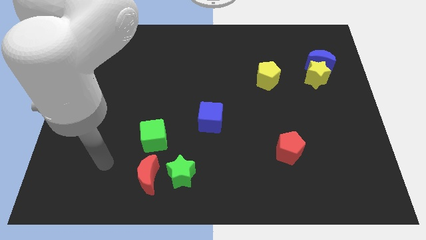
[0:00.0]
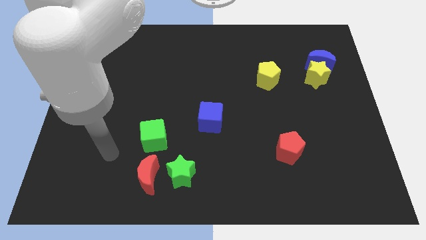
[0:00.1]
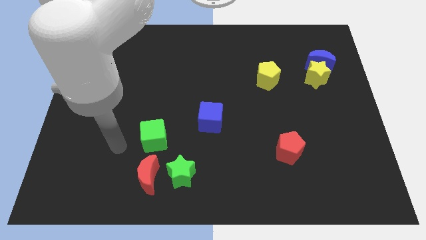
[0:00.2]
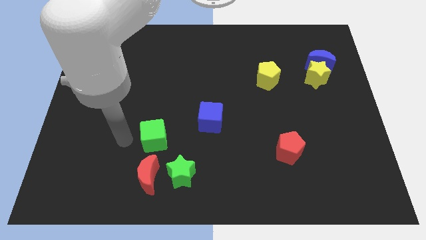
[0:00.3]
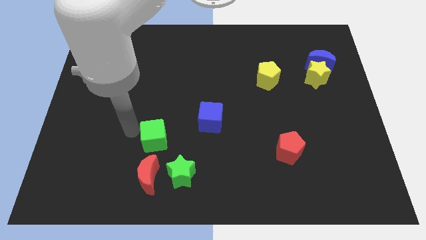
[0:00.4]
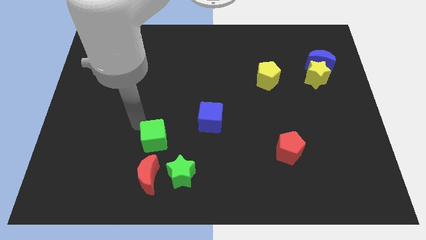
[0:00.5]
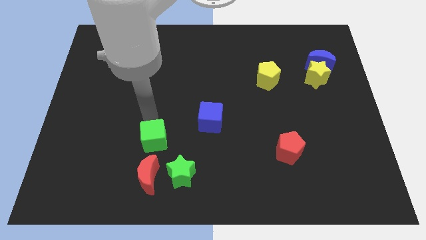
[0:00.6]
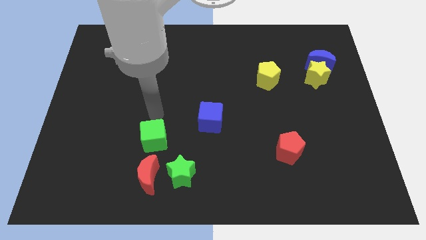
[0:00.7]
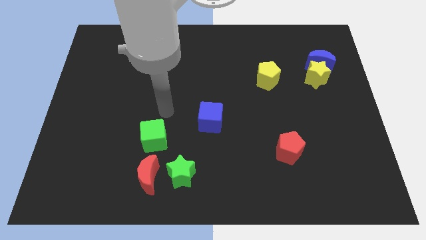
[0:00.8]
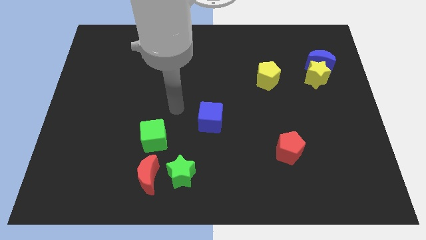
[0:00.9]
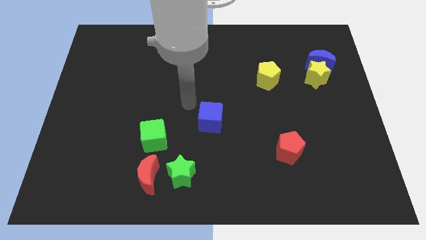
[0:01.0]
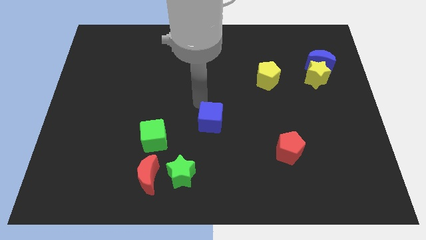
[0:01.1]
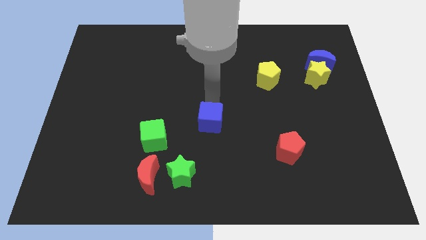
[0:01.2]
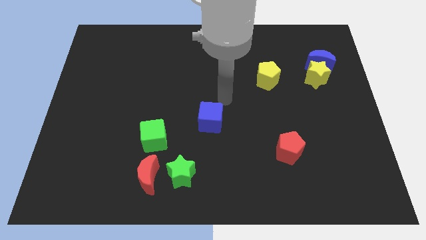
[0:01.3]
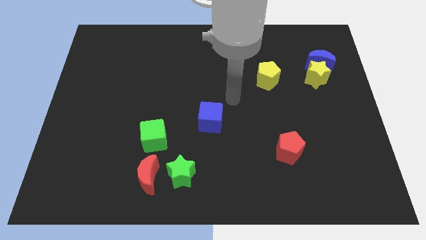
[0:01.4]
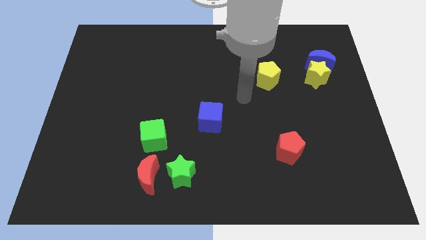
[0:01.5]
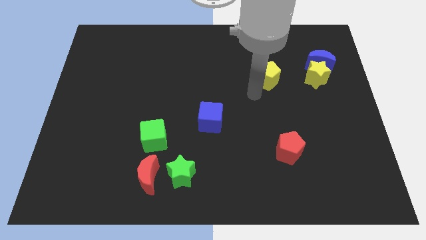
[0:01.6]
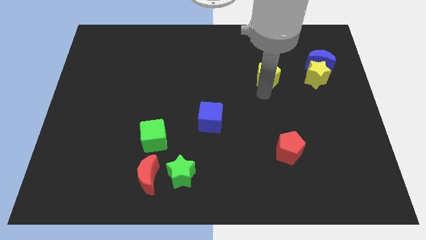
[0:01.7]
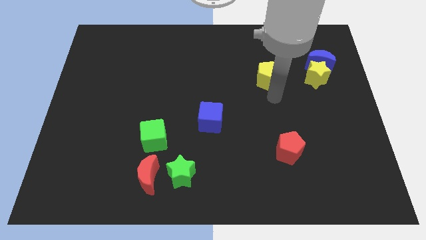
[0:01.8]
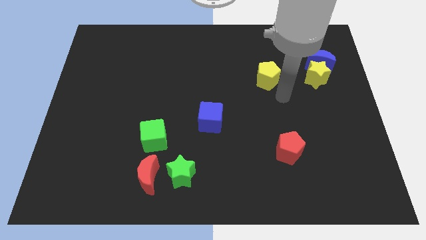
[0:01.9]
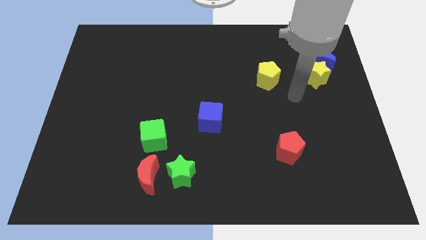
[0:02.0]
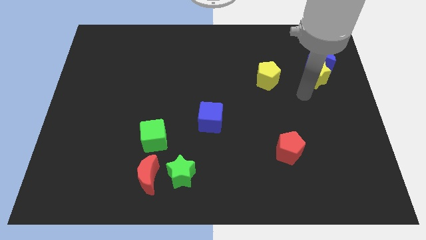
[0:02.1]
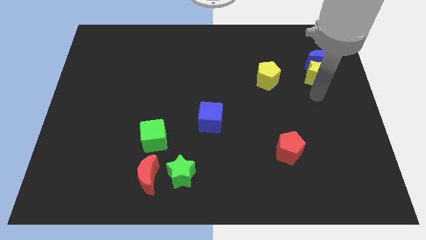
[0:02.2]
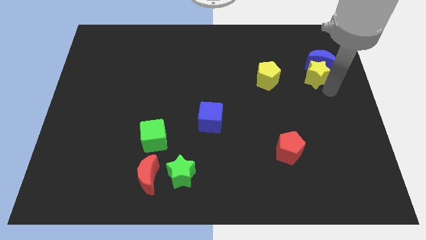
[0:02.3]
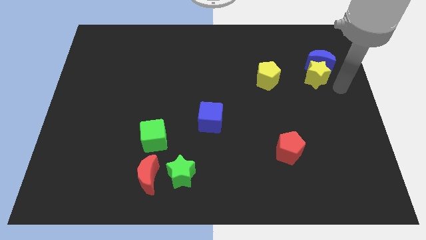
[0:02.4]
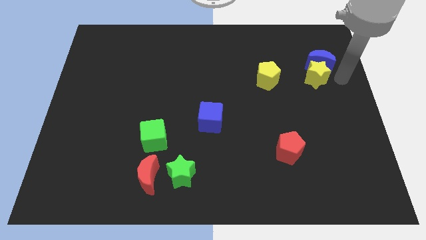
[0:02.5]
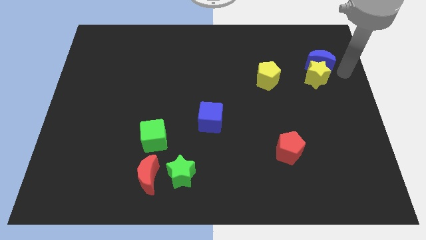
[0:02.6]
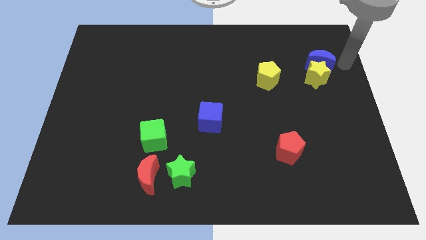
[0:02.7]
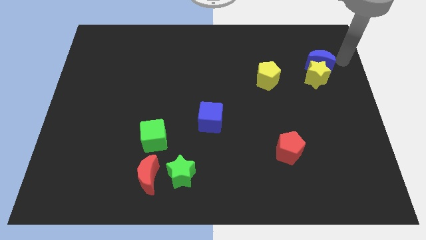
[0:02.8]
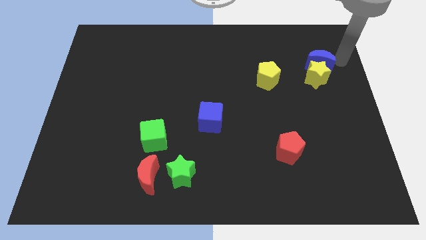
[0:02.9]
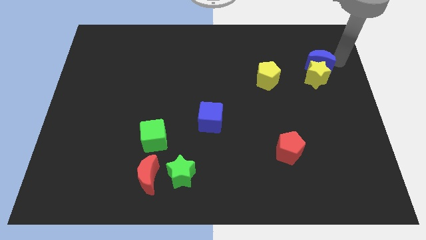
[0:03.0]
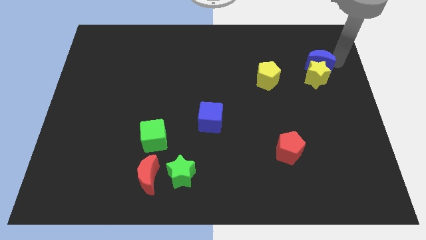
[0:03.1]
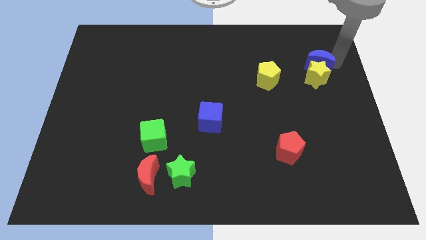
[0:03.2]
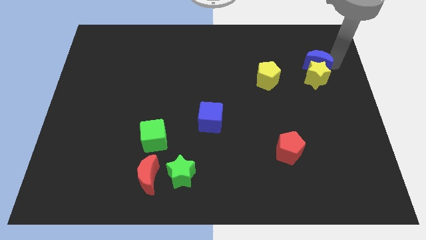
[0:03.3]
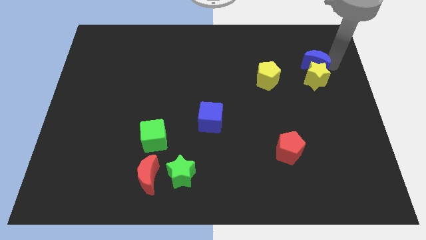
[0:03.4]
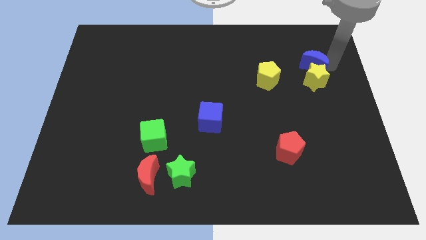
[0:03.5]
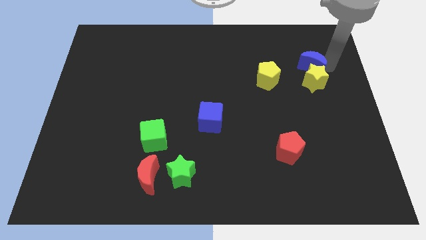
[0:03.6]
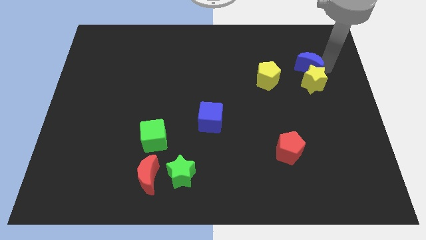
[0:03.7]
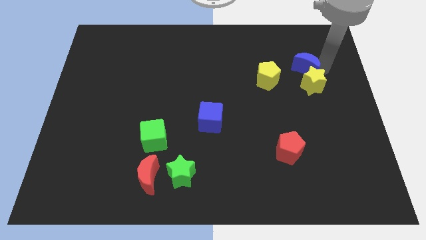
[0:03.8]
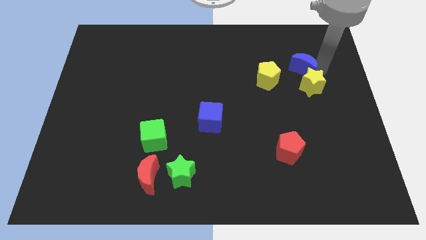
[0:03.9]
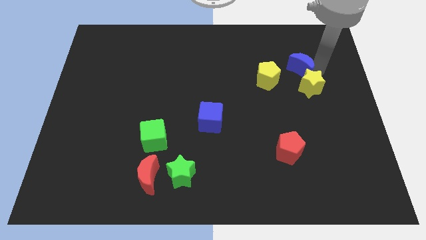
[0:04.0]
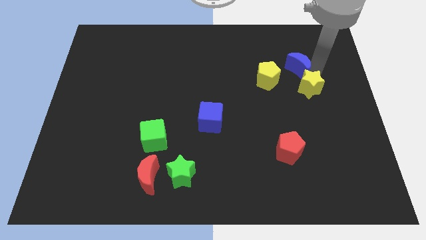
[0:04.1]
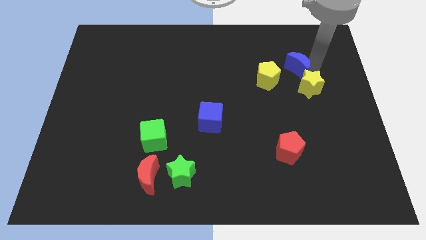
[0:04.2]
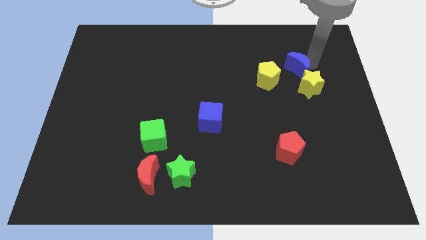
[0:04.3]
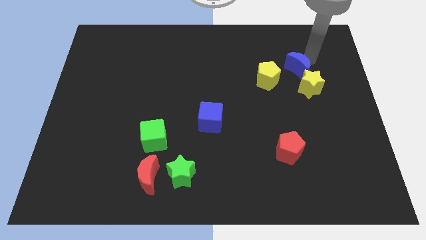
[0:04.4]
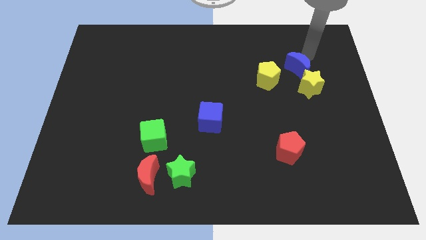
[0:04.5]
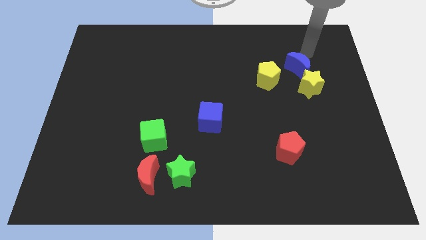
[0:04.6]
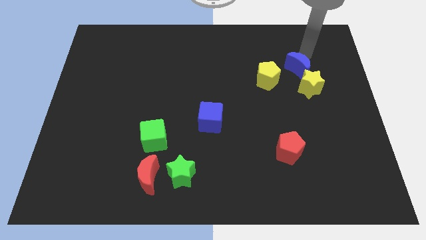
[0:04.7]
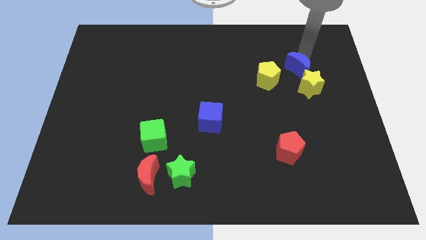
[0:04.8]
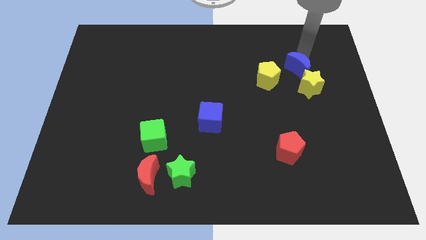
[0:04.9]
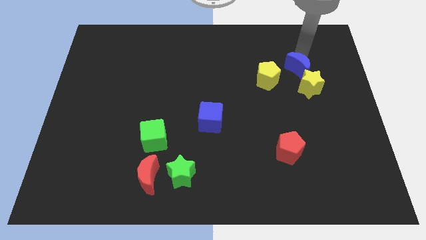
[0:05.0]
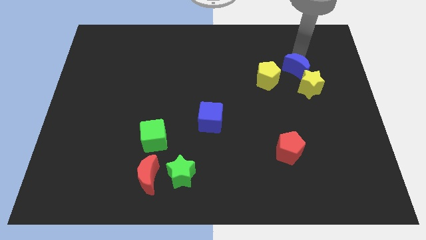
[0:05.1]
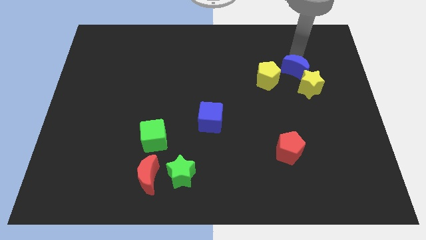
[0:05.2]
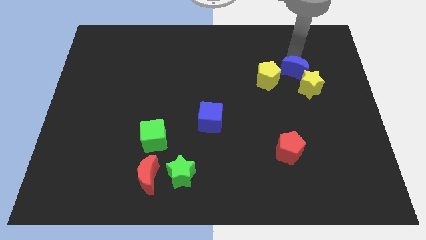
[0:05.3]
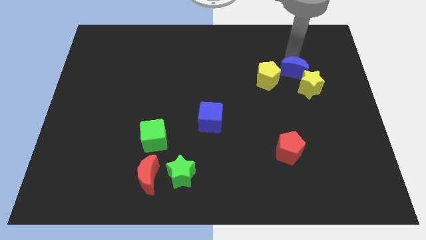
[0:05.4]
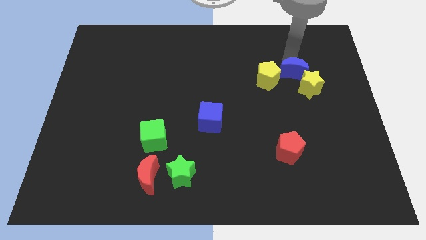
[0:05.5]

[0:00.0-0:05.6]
push the blue moon down and then to the left a bit

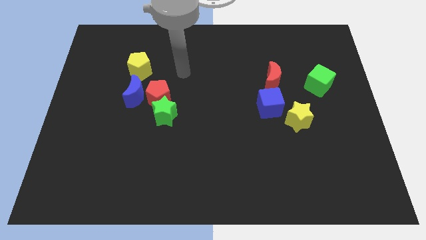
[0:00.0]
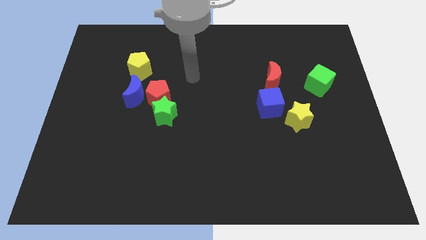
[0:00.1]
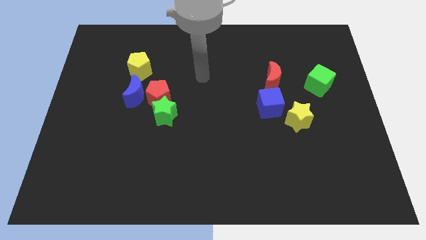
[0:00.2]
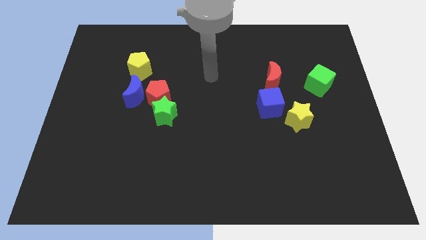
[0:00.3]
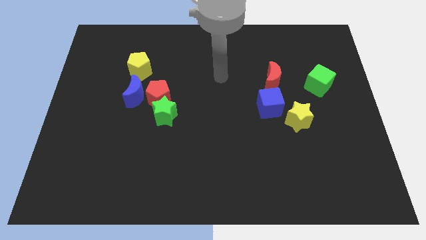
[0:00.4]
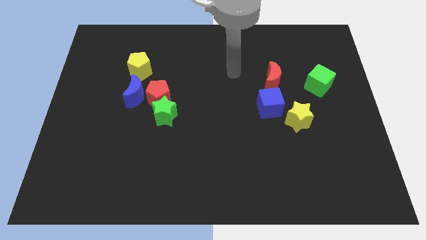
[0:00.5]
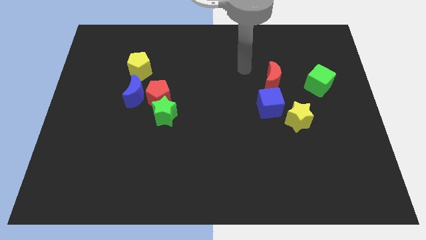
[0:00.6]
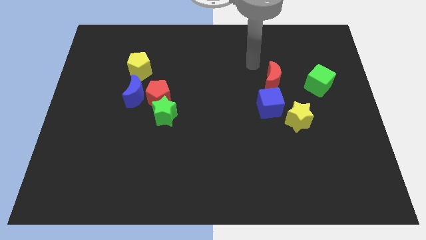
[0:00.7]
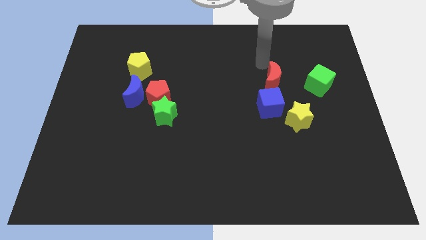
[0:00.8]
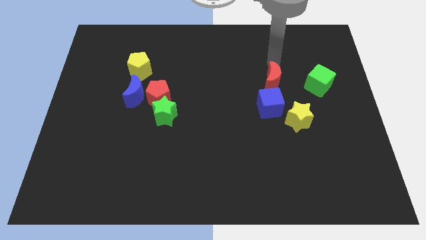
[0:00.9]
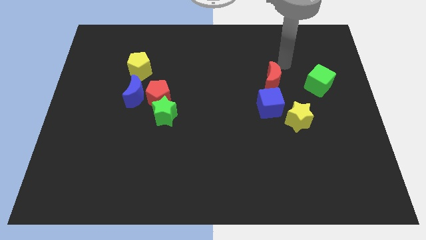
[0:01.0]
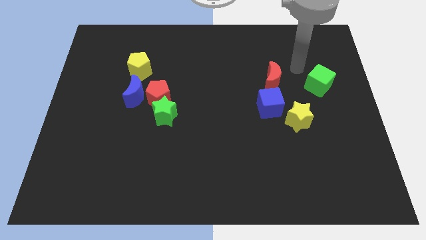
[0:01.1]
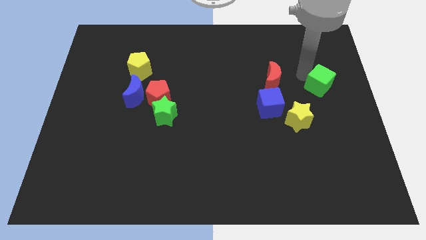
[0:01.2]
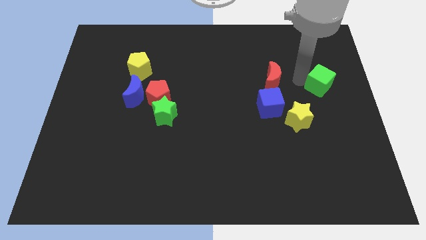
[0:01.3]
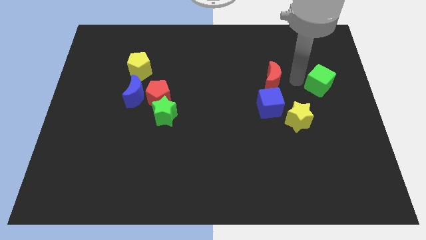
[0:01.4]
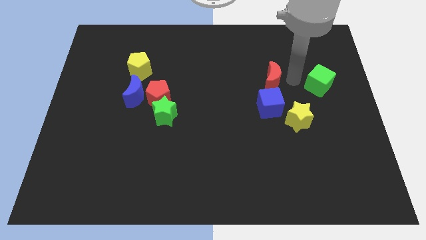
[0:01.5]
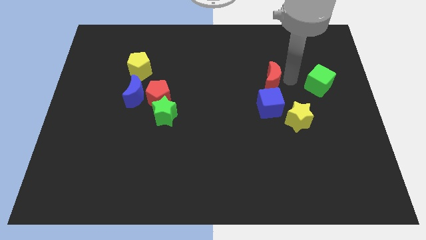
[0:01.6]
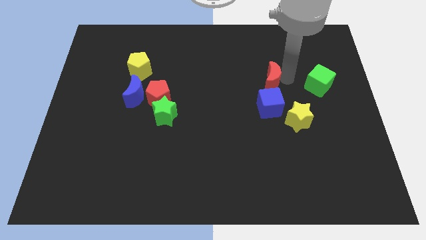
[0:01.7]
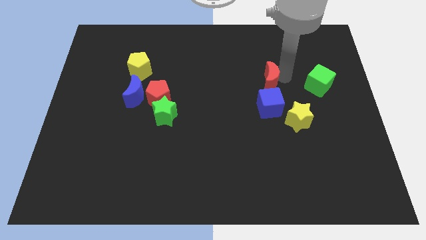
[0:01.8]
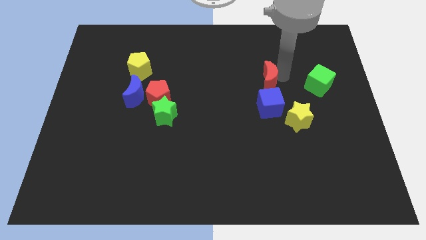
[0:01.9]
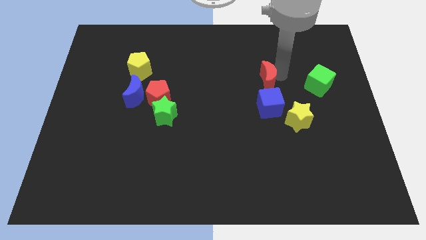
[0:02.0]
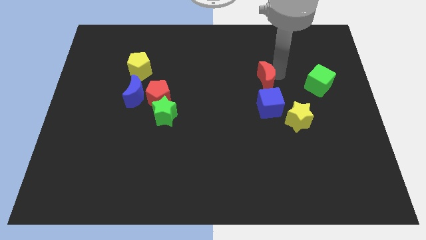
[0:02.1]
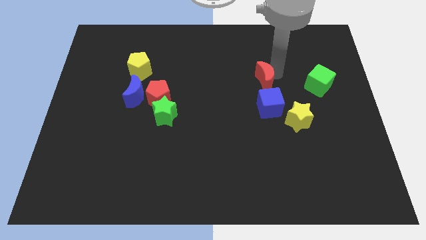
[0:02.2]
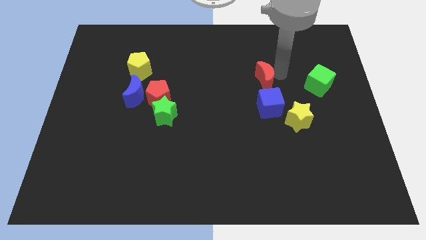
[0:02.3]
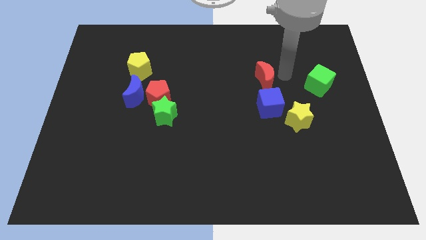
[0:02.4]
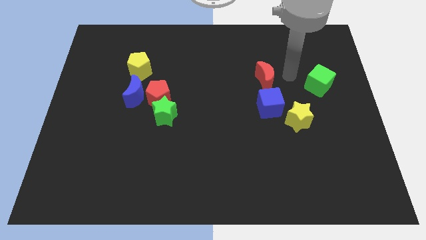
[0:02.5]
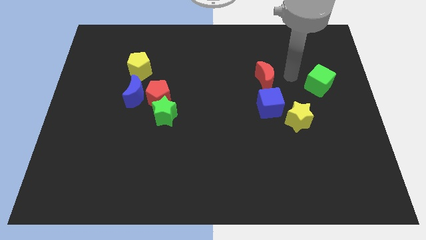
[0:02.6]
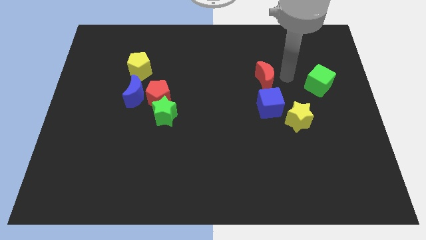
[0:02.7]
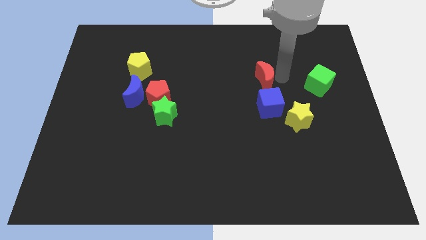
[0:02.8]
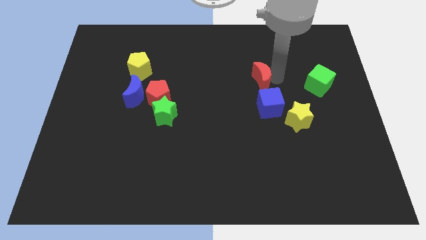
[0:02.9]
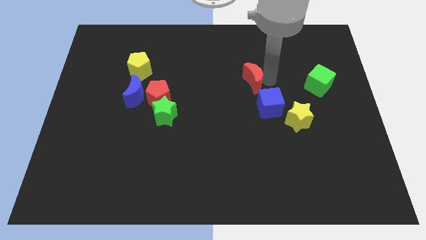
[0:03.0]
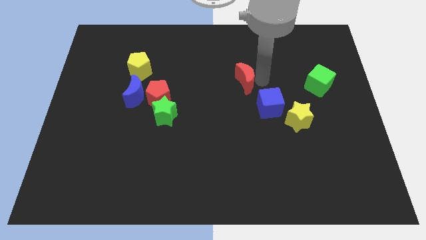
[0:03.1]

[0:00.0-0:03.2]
slightly slide the red moon to the left
